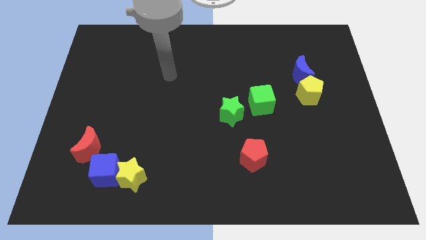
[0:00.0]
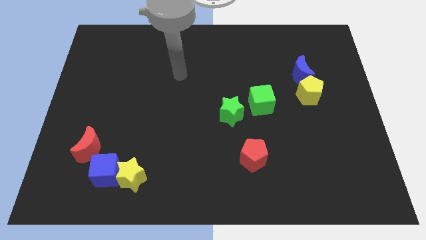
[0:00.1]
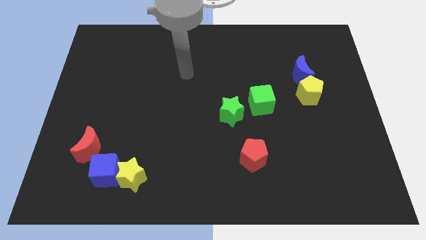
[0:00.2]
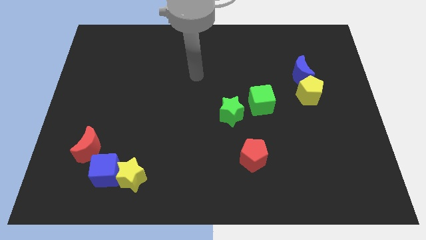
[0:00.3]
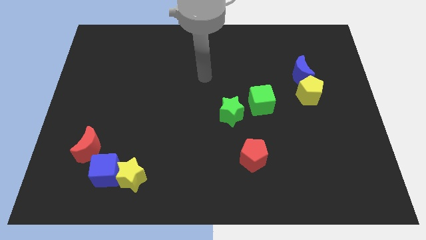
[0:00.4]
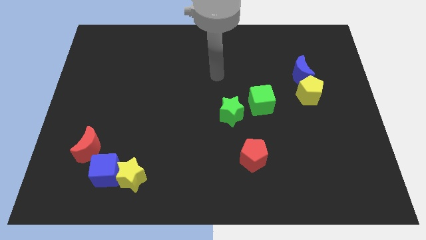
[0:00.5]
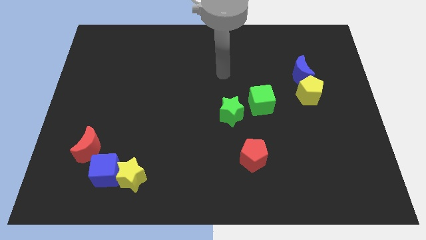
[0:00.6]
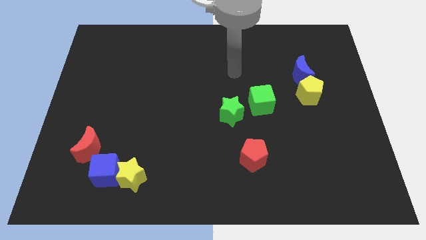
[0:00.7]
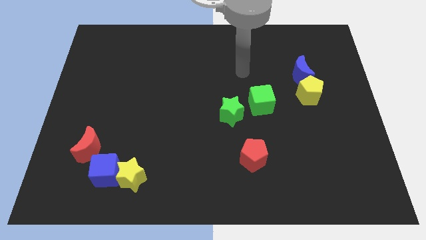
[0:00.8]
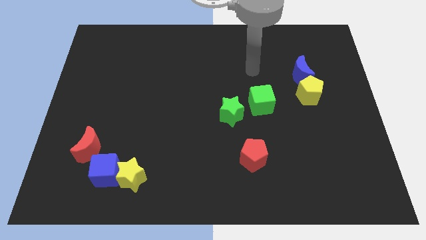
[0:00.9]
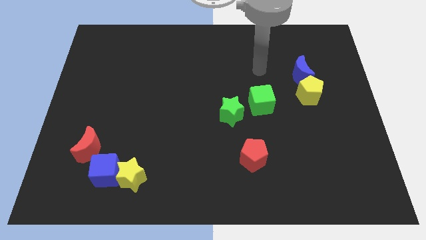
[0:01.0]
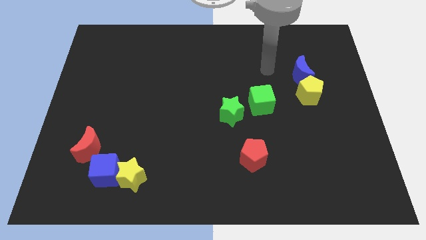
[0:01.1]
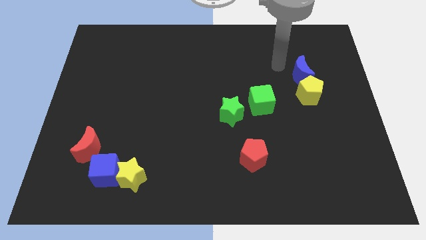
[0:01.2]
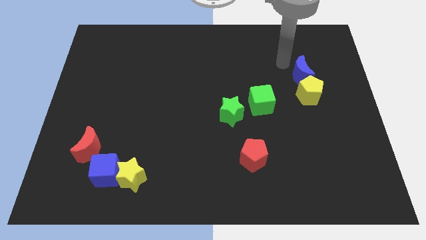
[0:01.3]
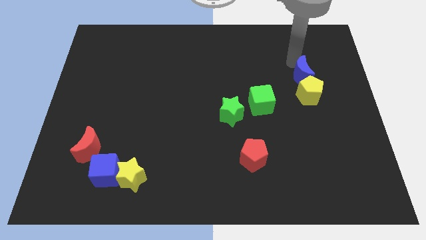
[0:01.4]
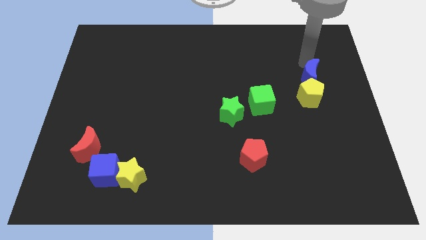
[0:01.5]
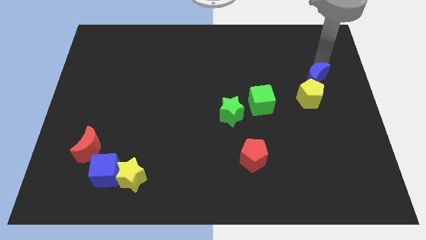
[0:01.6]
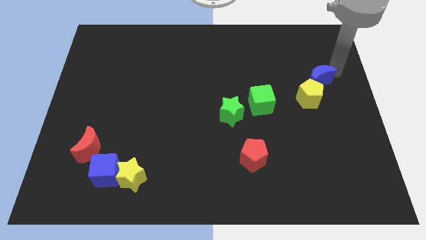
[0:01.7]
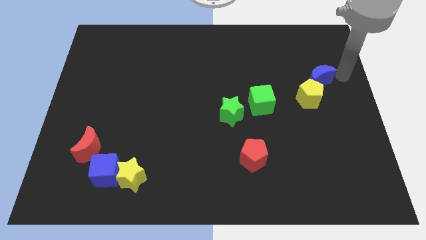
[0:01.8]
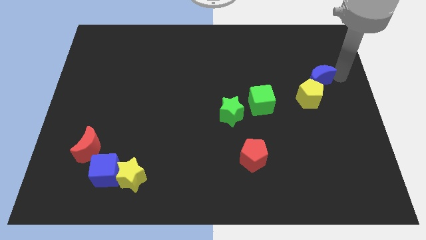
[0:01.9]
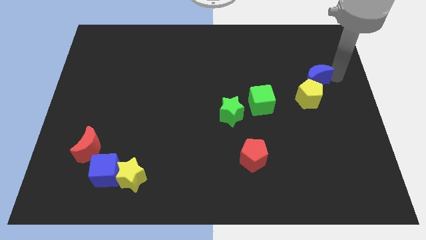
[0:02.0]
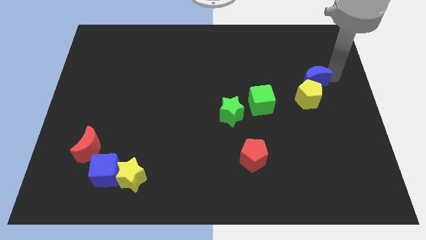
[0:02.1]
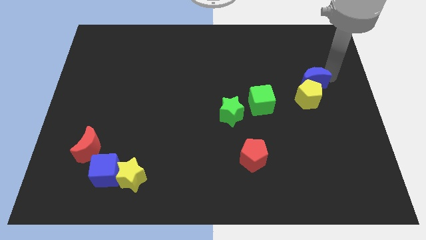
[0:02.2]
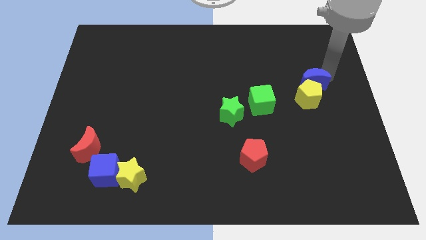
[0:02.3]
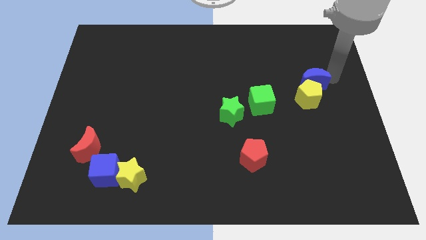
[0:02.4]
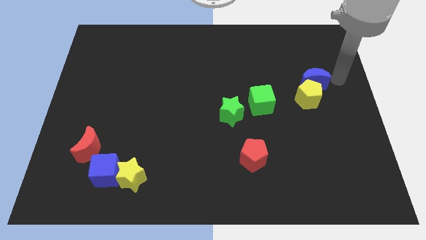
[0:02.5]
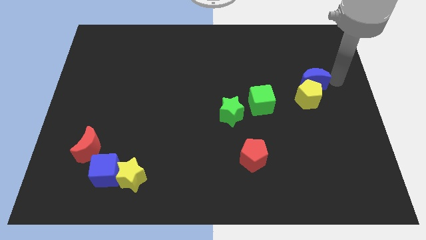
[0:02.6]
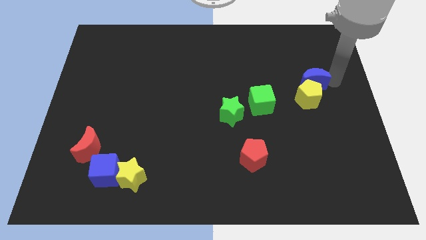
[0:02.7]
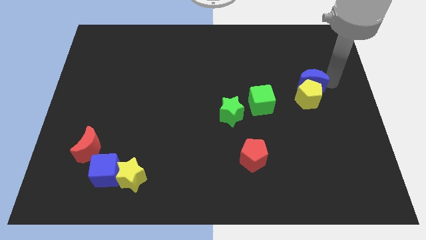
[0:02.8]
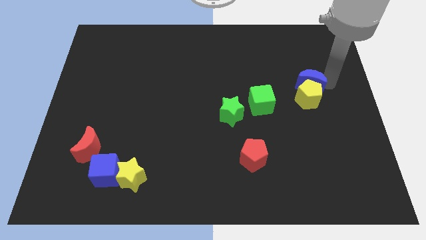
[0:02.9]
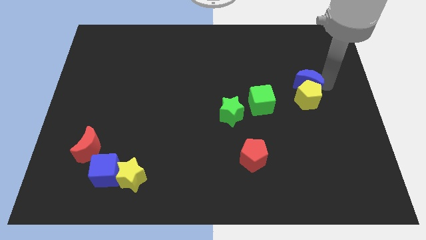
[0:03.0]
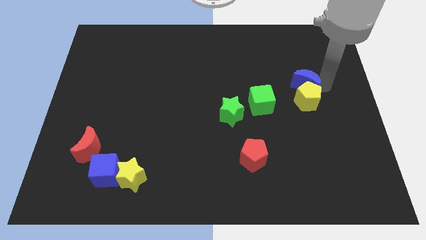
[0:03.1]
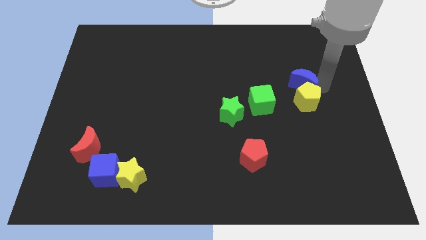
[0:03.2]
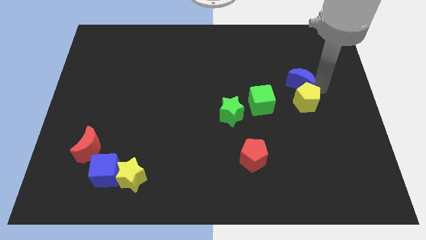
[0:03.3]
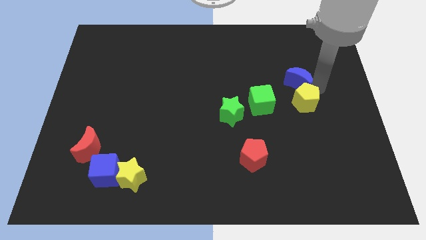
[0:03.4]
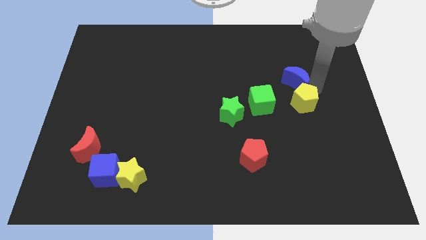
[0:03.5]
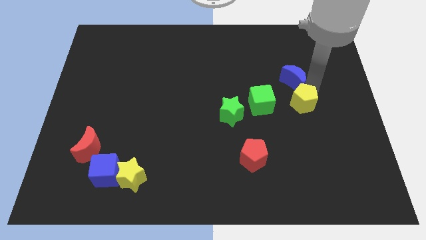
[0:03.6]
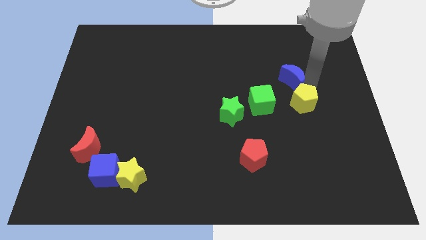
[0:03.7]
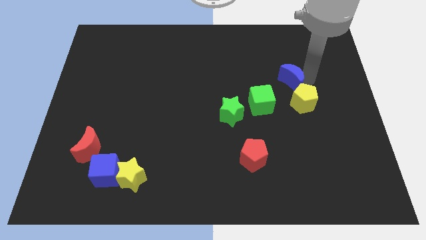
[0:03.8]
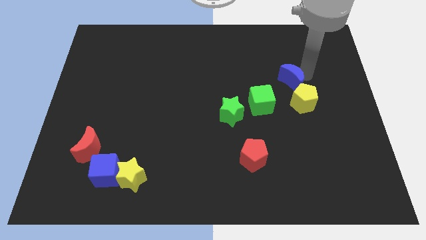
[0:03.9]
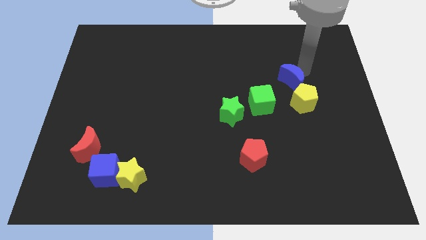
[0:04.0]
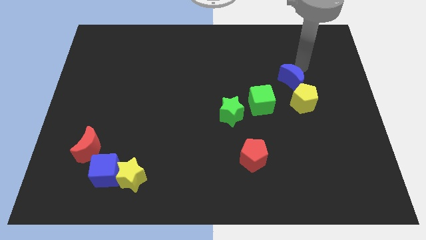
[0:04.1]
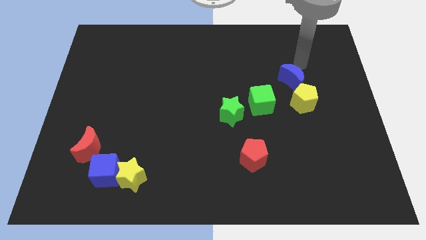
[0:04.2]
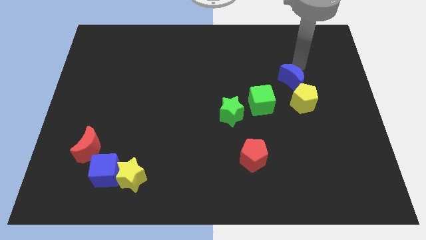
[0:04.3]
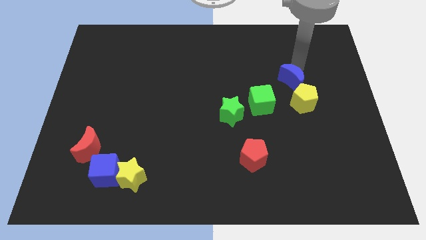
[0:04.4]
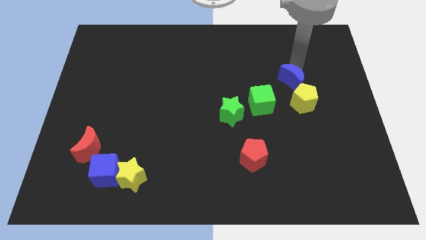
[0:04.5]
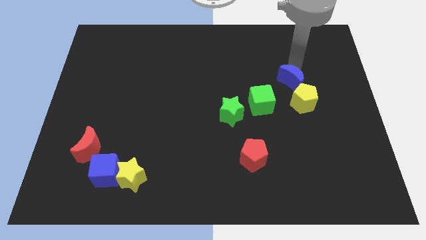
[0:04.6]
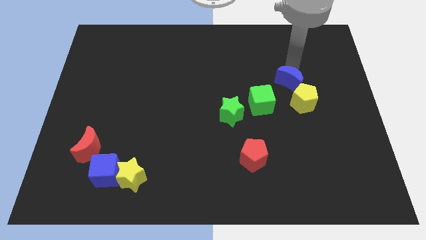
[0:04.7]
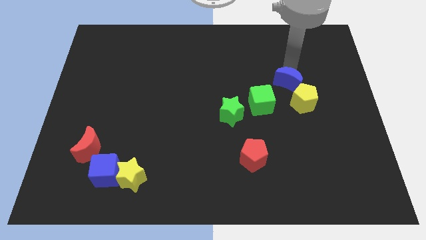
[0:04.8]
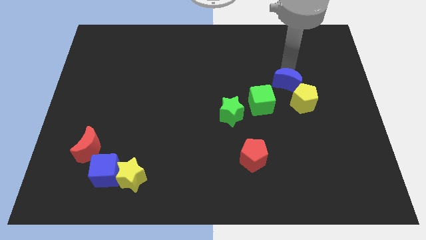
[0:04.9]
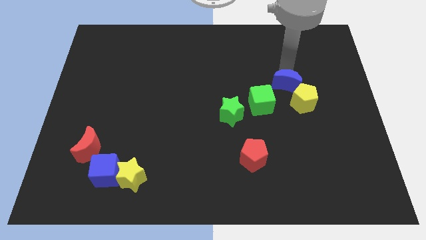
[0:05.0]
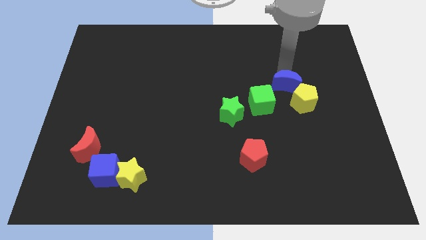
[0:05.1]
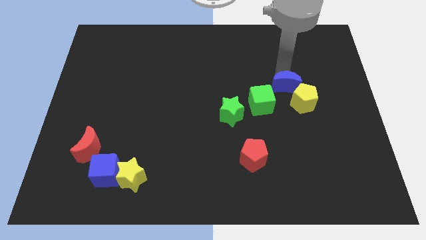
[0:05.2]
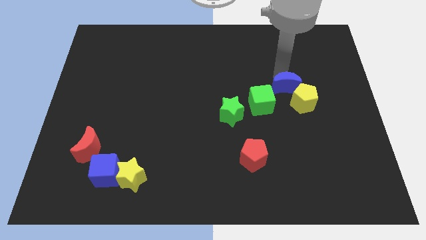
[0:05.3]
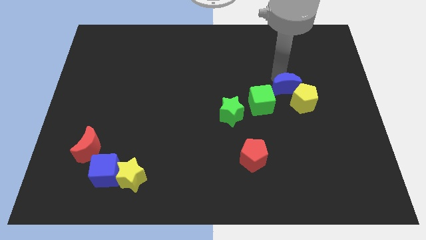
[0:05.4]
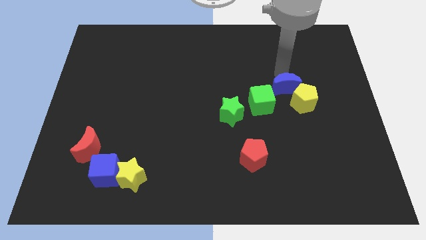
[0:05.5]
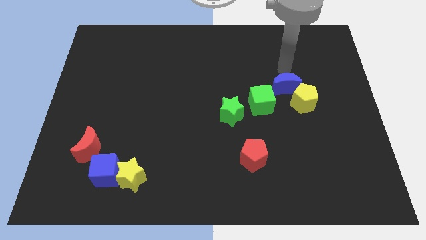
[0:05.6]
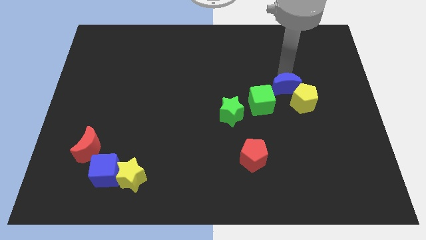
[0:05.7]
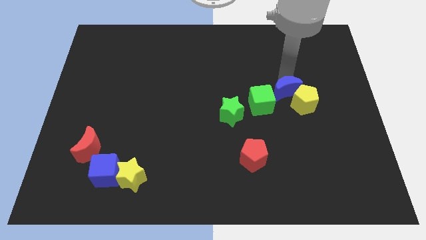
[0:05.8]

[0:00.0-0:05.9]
move the blue moon a little diagonally down and left

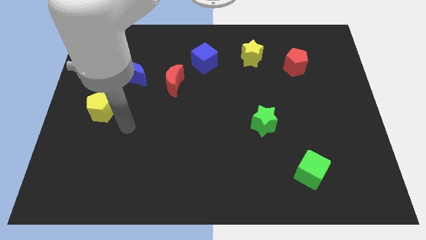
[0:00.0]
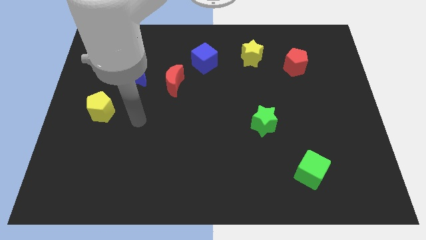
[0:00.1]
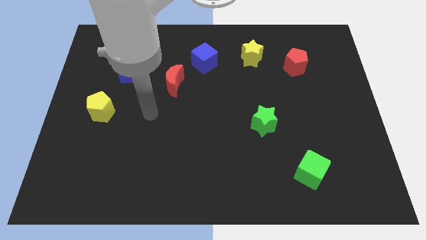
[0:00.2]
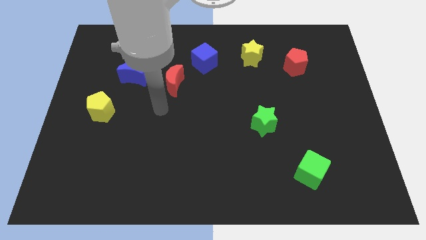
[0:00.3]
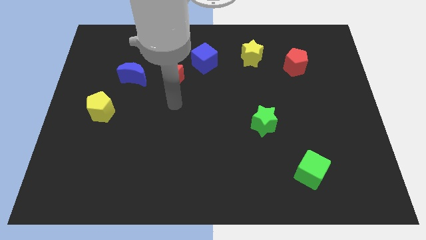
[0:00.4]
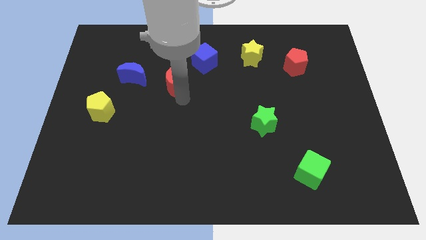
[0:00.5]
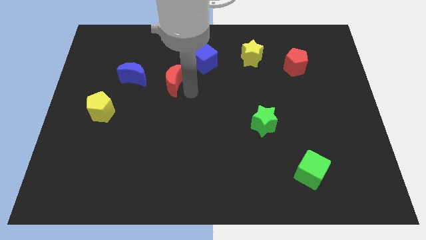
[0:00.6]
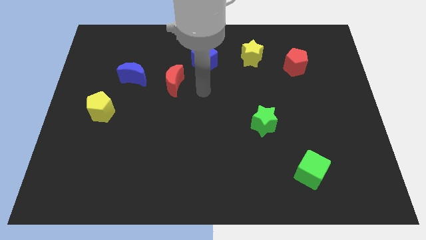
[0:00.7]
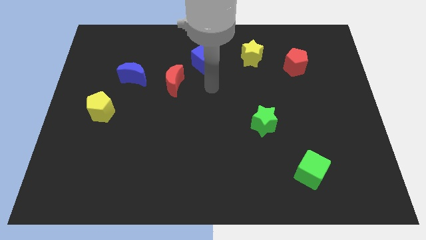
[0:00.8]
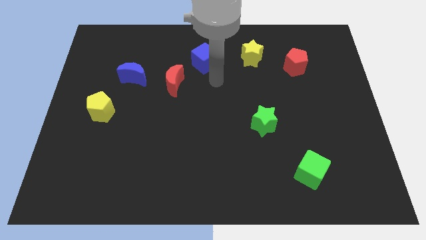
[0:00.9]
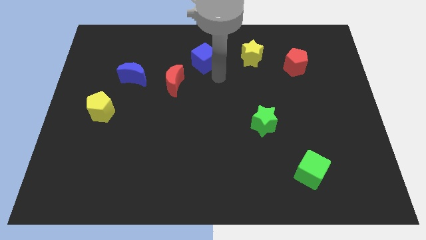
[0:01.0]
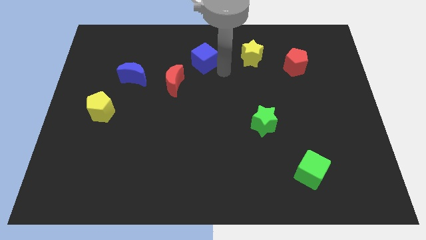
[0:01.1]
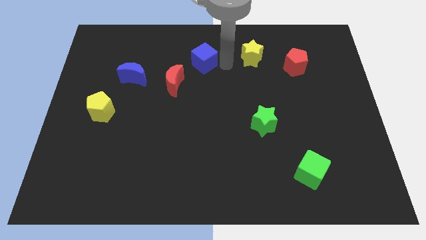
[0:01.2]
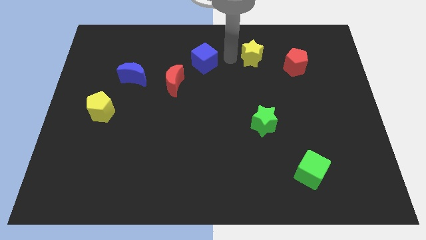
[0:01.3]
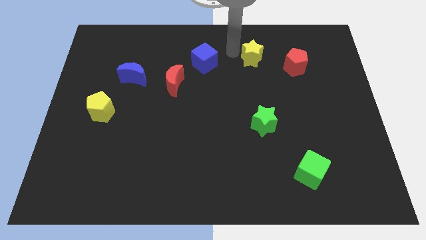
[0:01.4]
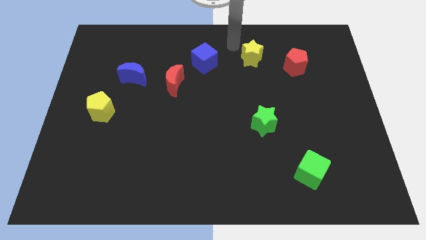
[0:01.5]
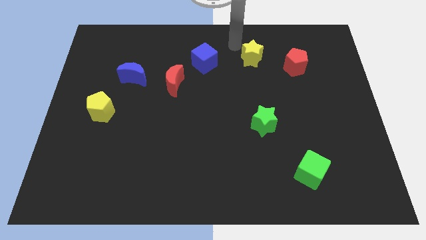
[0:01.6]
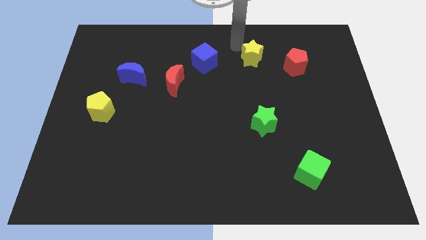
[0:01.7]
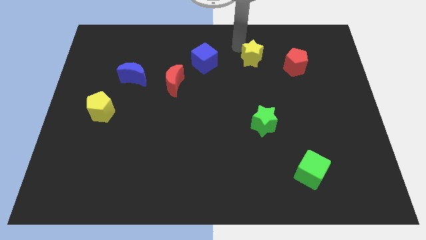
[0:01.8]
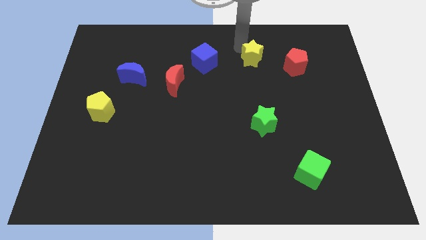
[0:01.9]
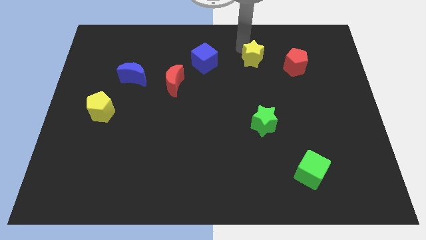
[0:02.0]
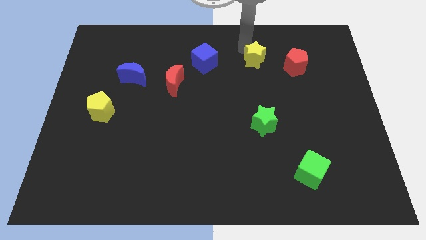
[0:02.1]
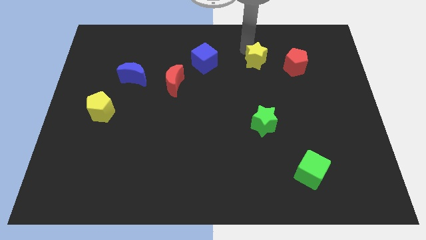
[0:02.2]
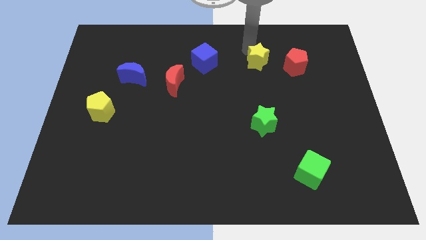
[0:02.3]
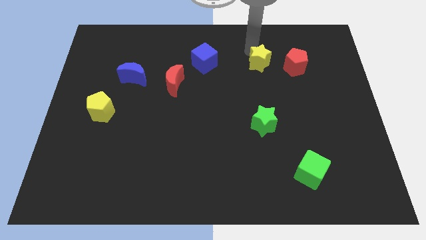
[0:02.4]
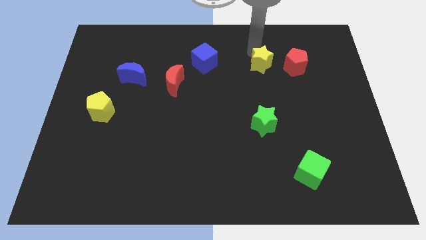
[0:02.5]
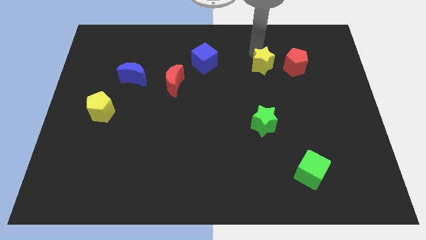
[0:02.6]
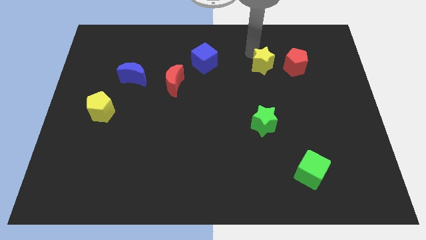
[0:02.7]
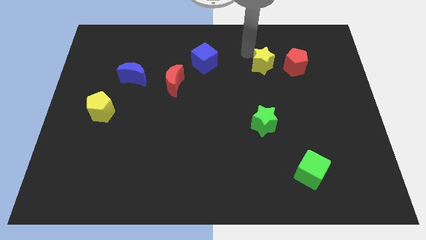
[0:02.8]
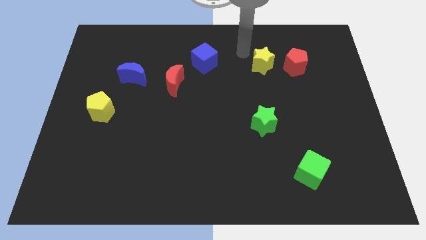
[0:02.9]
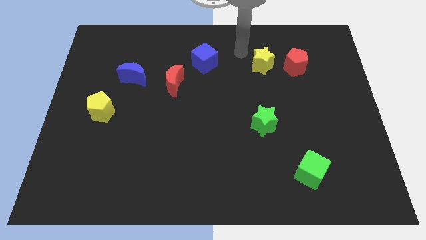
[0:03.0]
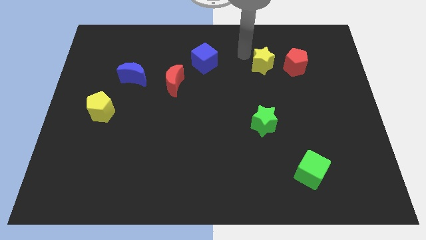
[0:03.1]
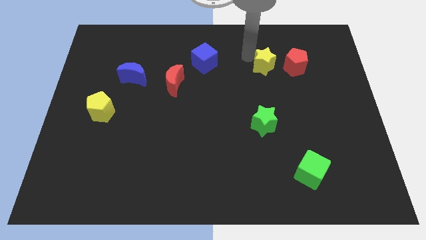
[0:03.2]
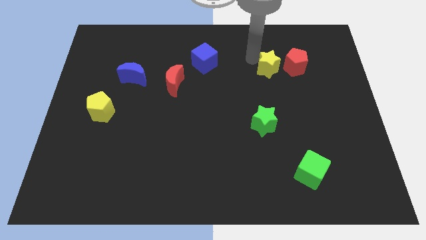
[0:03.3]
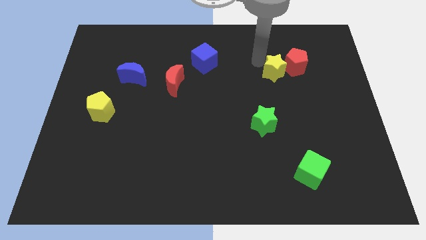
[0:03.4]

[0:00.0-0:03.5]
slide the yellow star downwards and right diagonally a little bit
